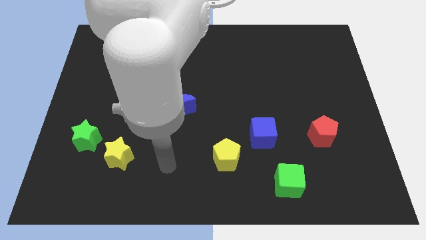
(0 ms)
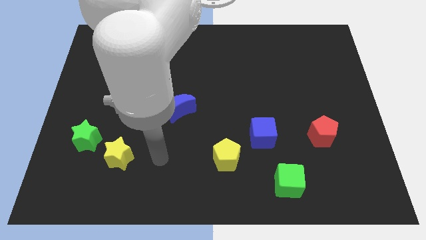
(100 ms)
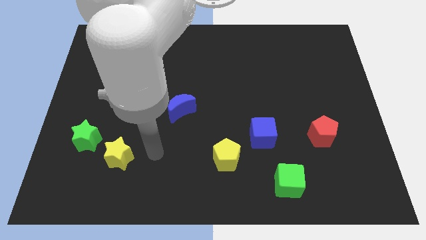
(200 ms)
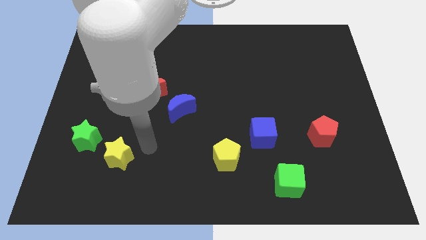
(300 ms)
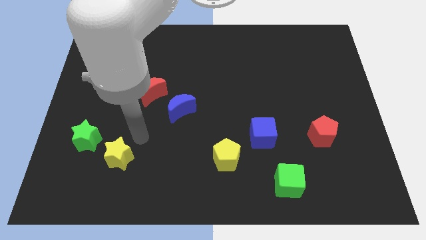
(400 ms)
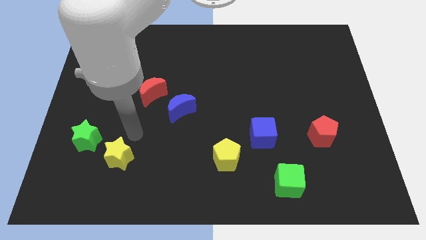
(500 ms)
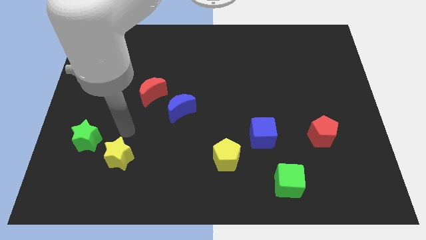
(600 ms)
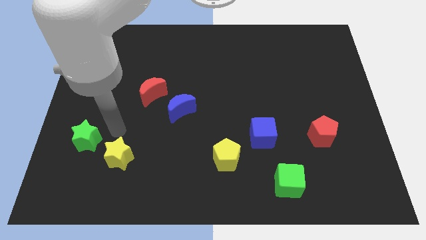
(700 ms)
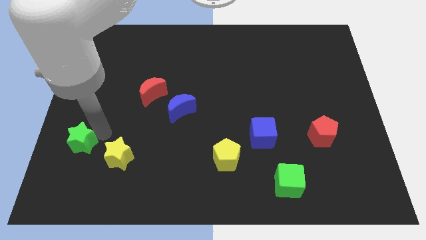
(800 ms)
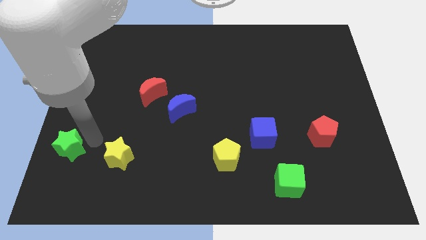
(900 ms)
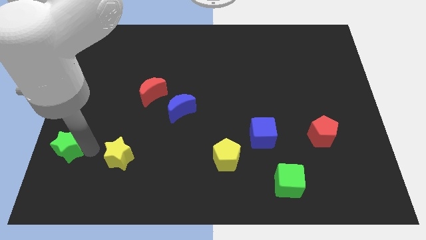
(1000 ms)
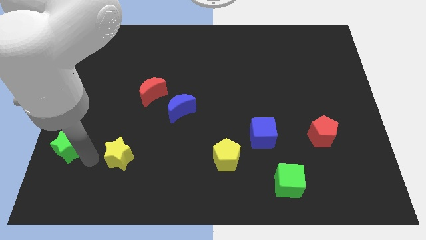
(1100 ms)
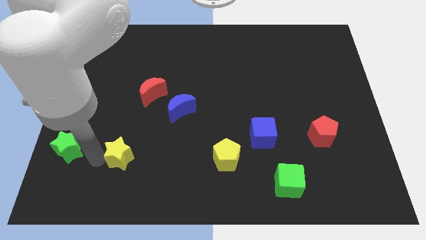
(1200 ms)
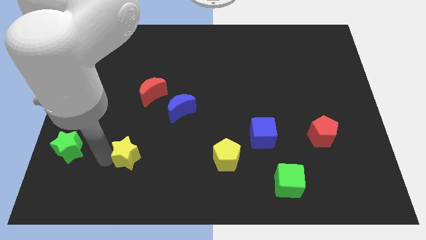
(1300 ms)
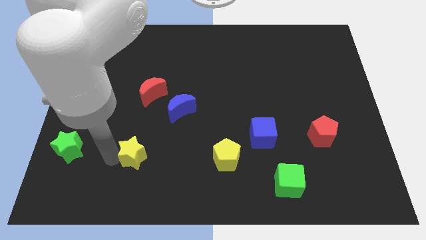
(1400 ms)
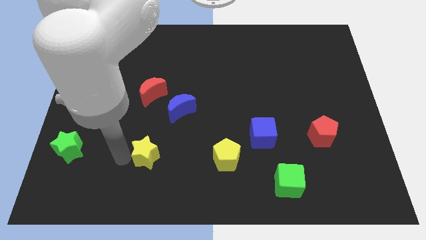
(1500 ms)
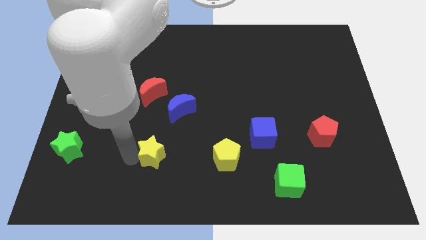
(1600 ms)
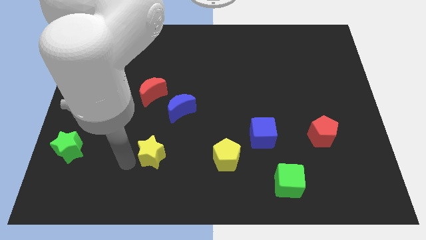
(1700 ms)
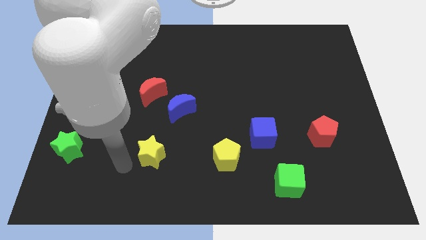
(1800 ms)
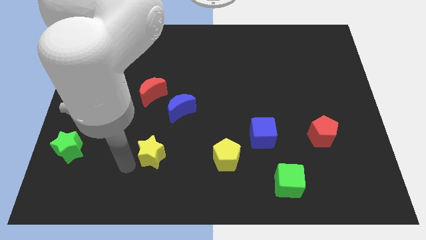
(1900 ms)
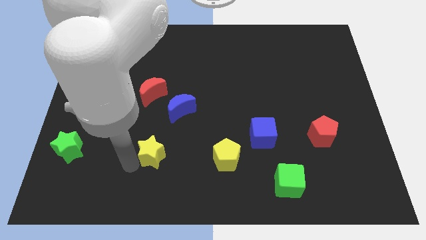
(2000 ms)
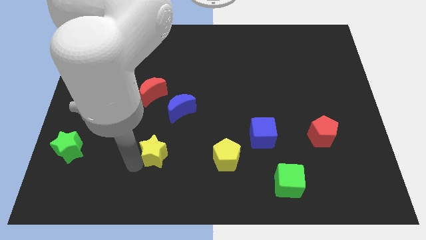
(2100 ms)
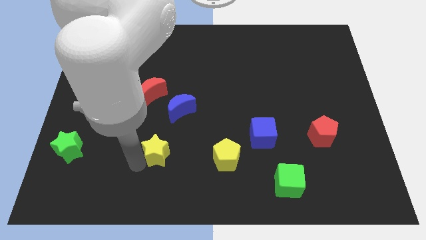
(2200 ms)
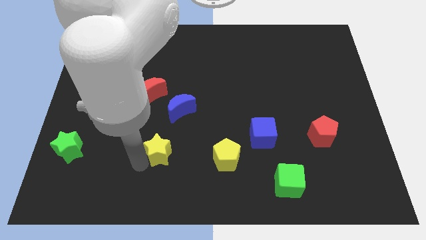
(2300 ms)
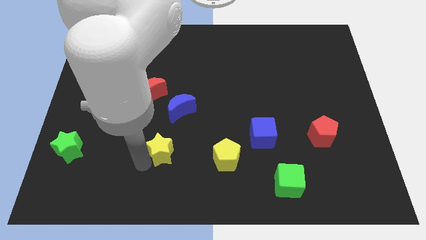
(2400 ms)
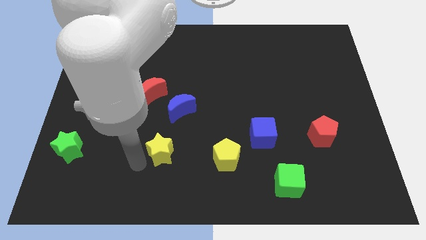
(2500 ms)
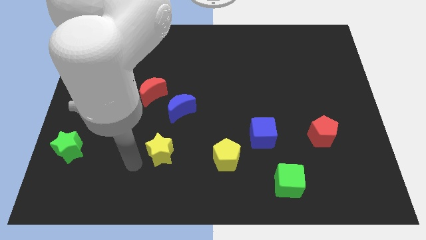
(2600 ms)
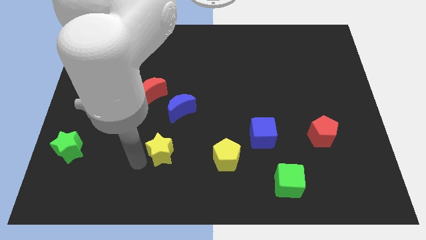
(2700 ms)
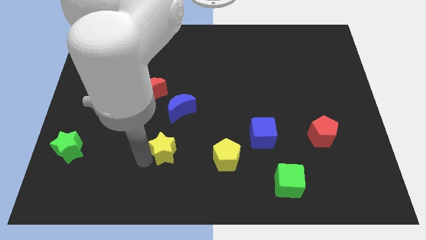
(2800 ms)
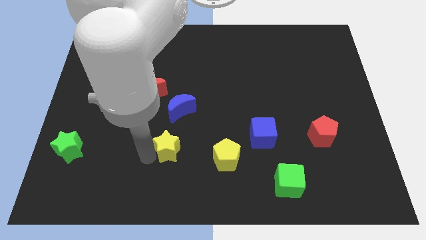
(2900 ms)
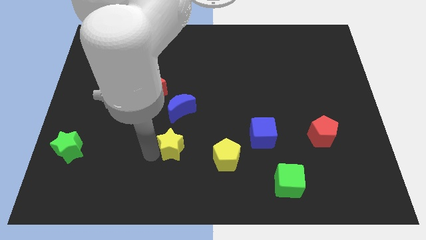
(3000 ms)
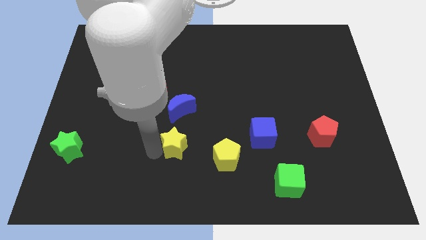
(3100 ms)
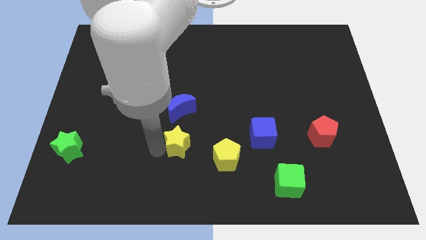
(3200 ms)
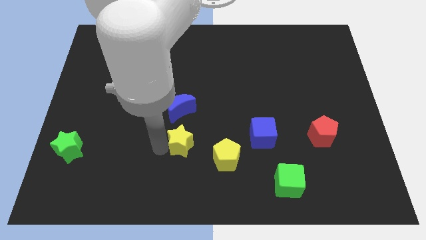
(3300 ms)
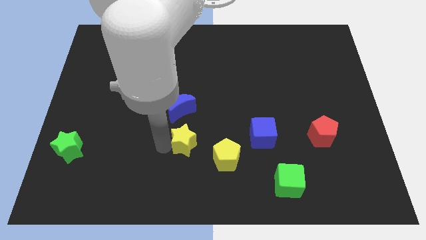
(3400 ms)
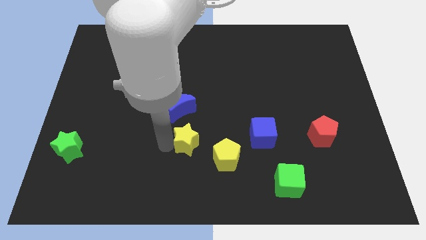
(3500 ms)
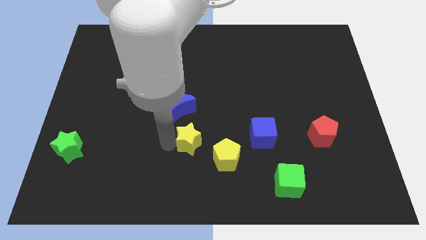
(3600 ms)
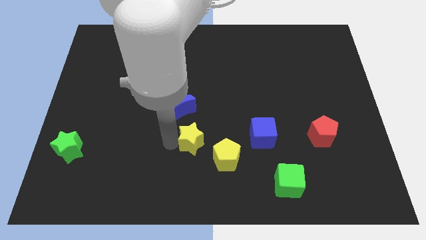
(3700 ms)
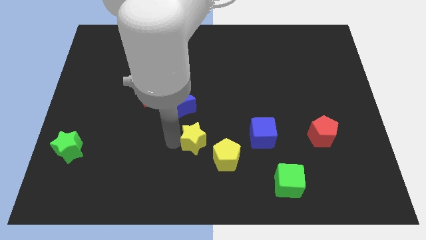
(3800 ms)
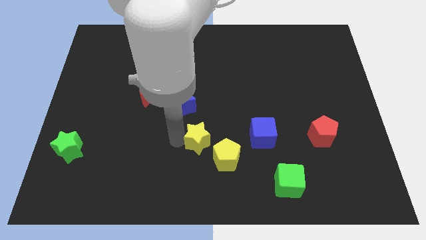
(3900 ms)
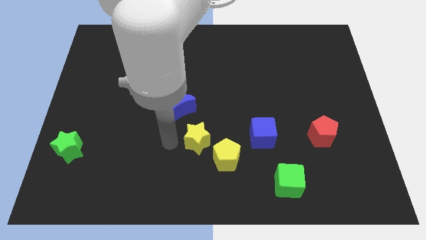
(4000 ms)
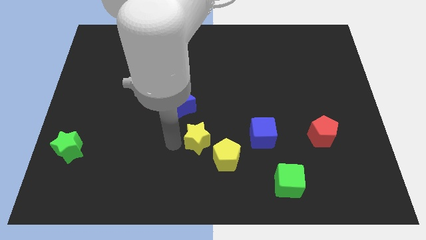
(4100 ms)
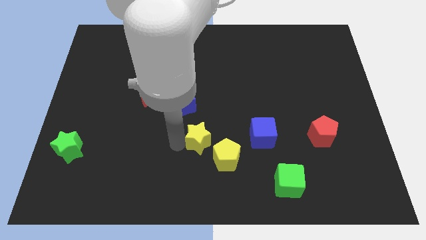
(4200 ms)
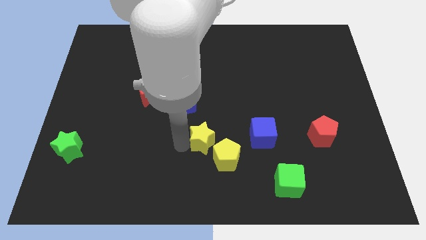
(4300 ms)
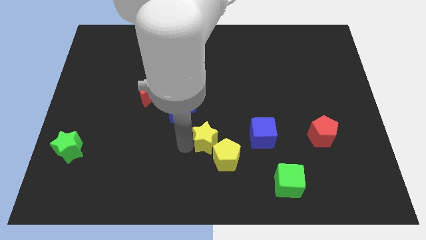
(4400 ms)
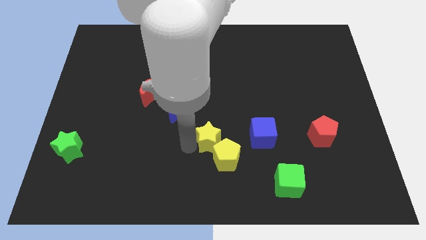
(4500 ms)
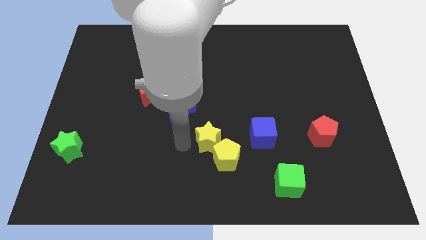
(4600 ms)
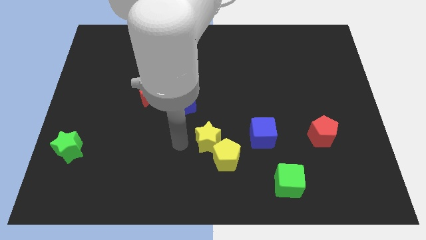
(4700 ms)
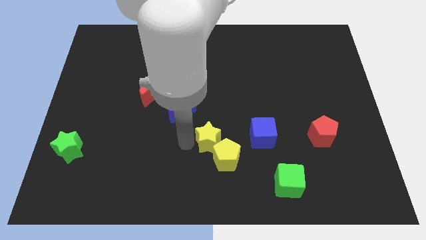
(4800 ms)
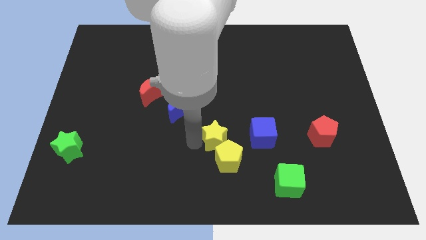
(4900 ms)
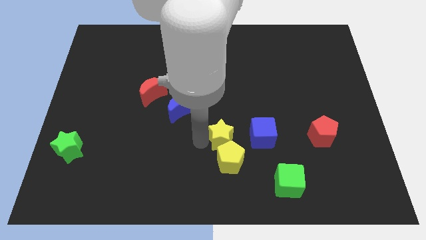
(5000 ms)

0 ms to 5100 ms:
slide the yellow star to the right

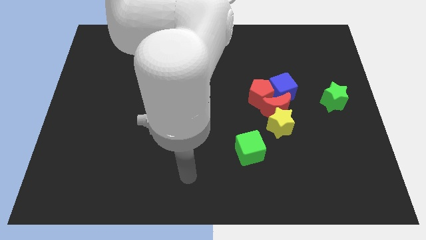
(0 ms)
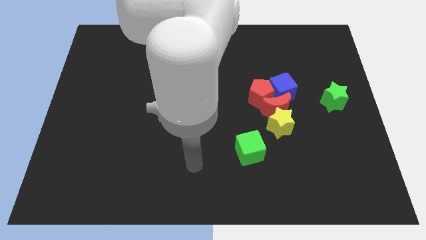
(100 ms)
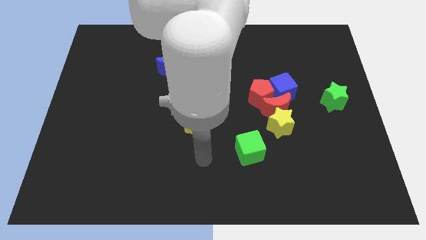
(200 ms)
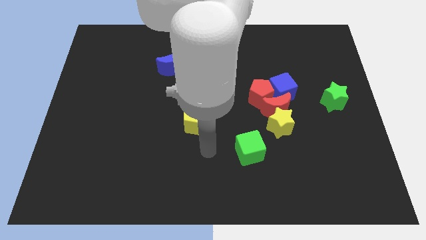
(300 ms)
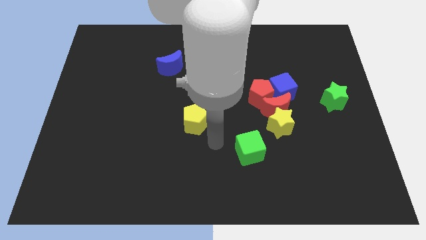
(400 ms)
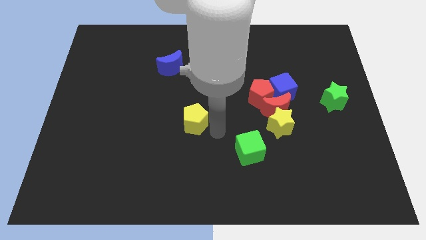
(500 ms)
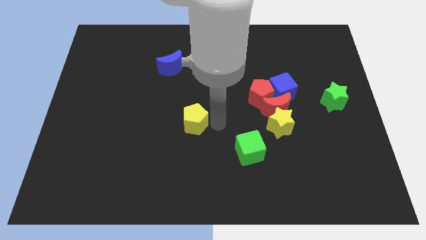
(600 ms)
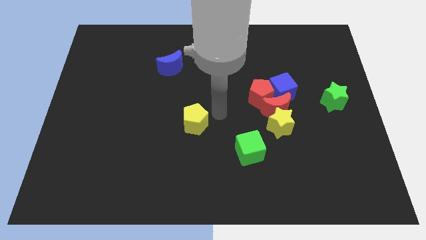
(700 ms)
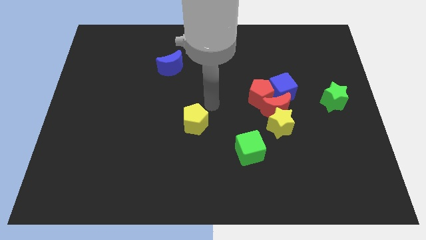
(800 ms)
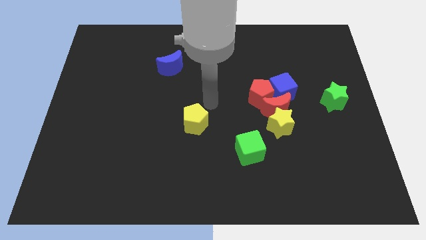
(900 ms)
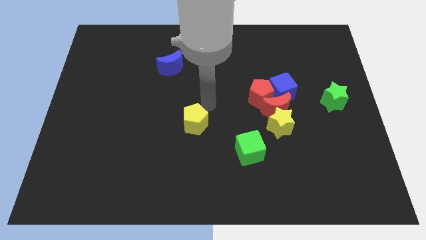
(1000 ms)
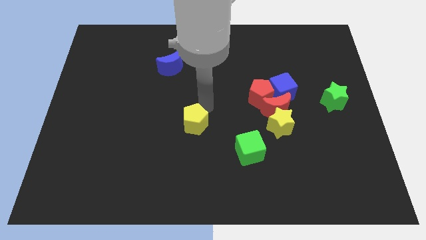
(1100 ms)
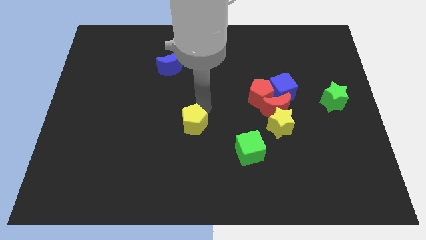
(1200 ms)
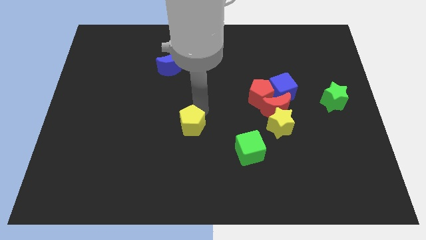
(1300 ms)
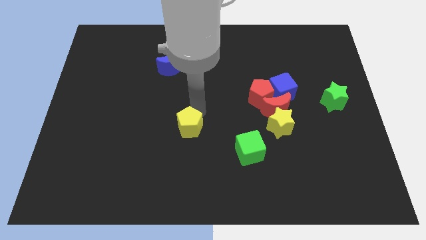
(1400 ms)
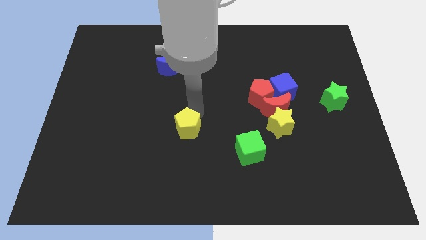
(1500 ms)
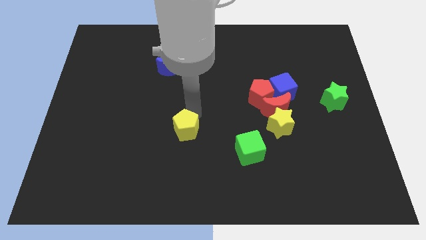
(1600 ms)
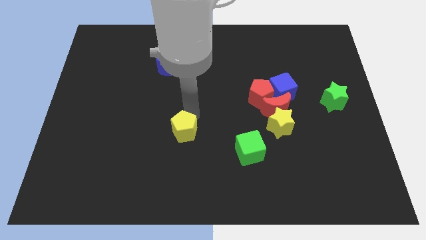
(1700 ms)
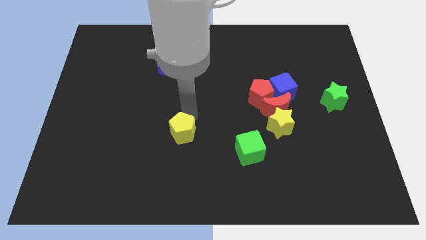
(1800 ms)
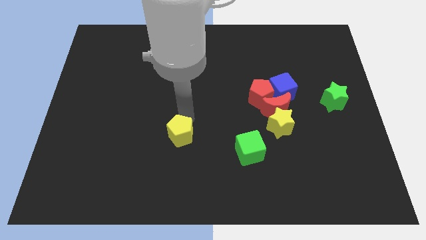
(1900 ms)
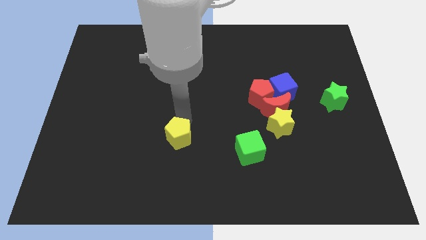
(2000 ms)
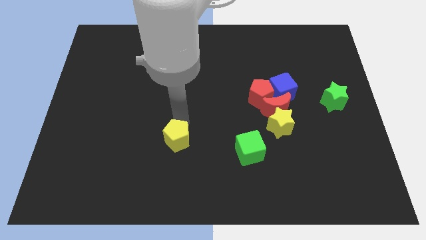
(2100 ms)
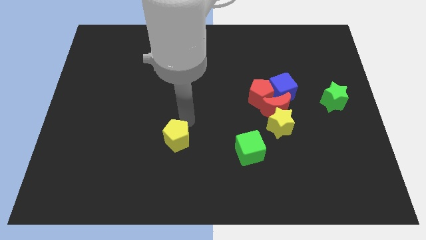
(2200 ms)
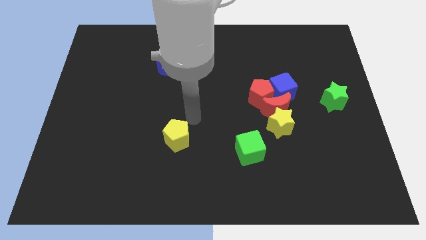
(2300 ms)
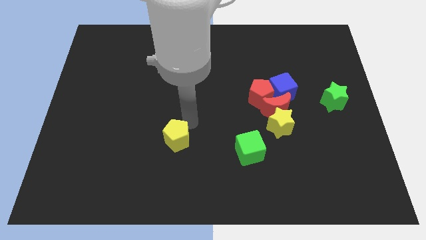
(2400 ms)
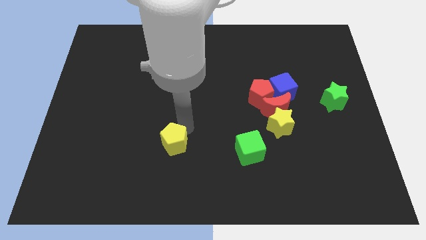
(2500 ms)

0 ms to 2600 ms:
push the yellow pentagon a bit diagonally down and left
